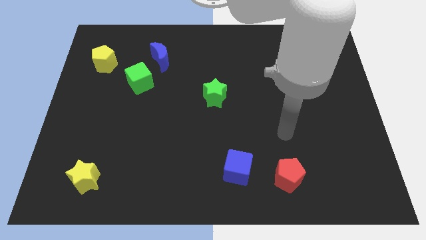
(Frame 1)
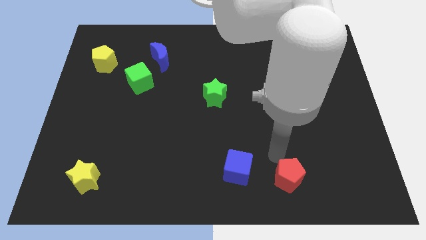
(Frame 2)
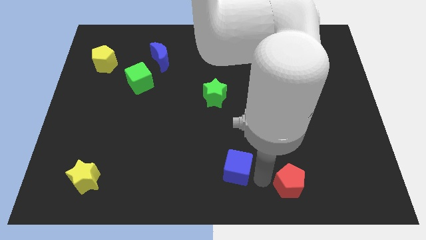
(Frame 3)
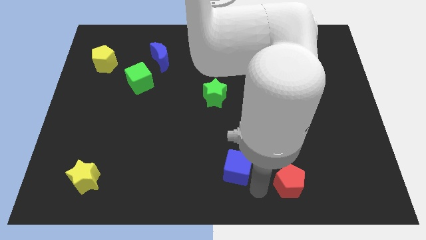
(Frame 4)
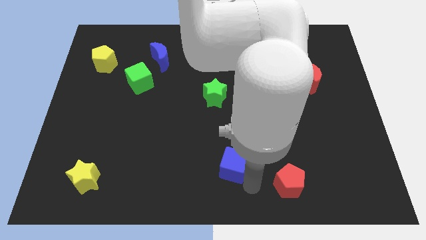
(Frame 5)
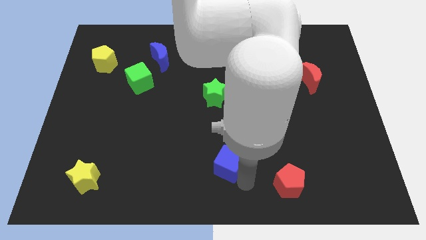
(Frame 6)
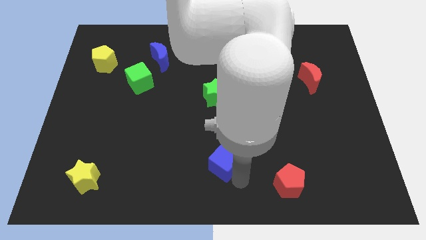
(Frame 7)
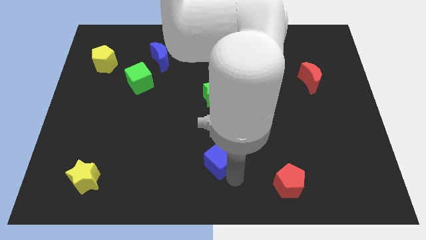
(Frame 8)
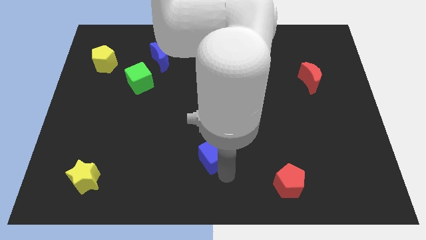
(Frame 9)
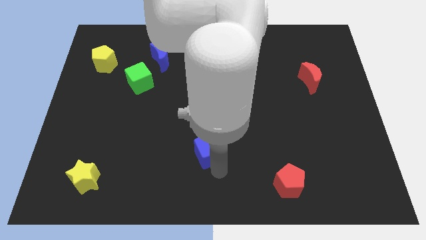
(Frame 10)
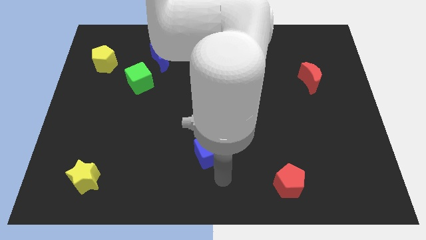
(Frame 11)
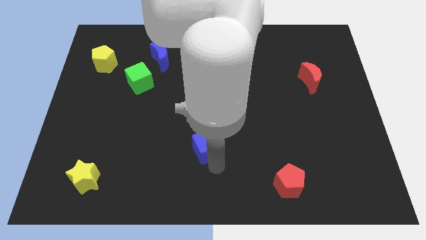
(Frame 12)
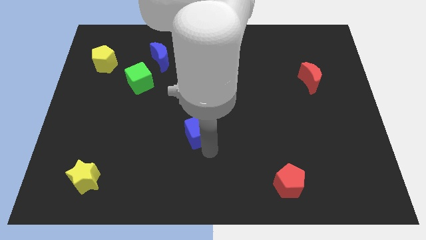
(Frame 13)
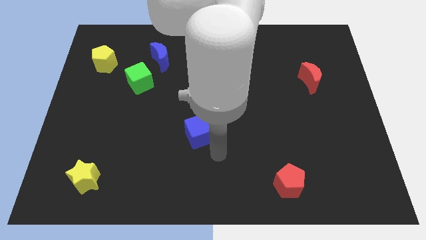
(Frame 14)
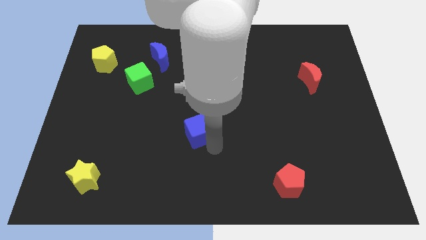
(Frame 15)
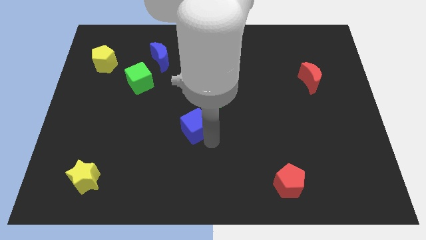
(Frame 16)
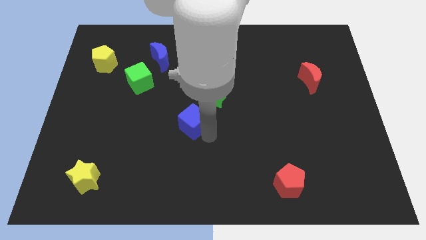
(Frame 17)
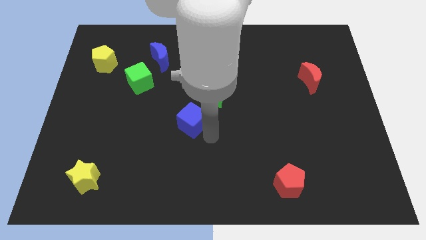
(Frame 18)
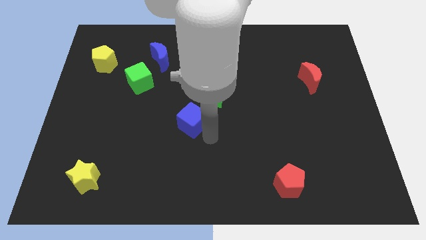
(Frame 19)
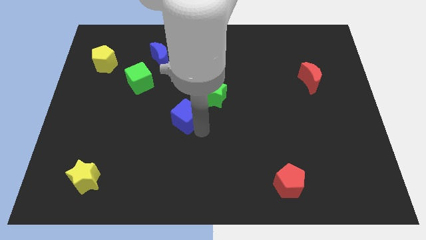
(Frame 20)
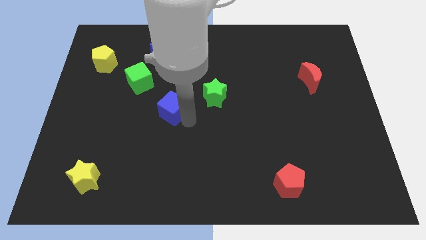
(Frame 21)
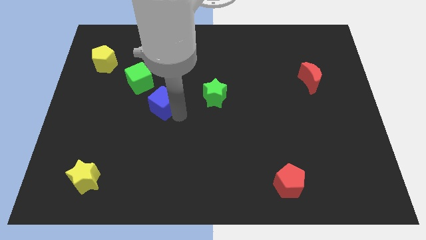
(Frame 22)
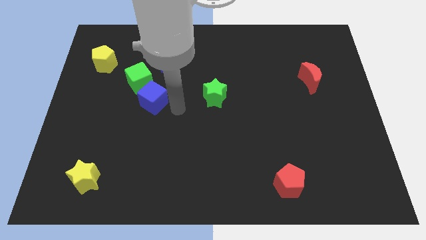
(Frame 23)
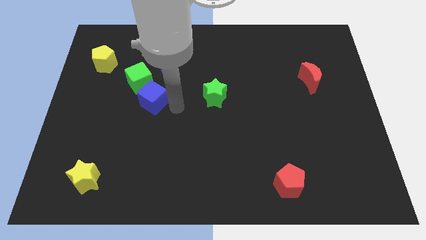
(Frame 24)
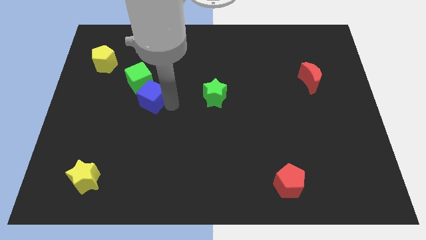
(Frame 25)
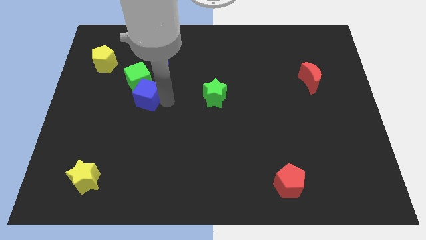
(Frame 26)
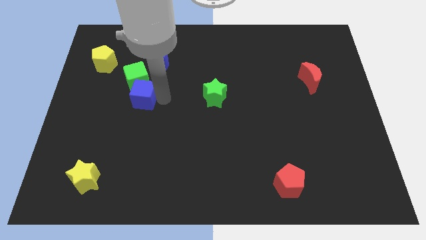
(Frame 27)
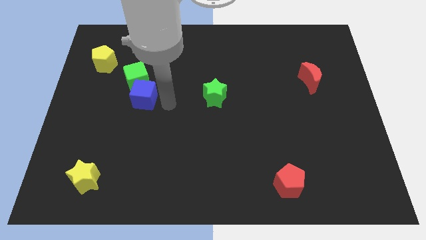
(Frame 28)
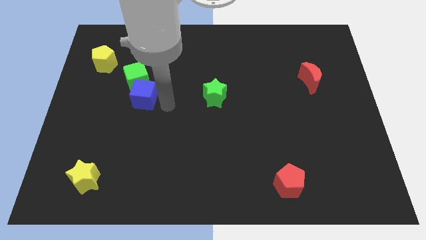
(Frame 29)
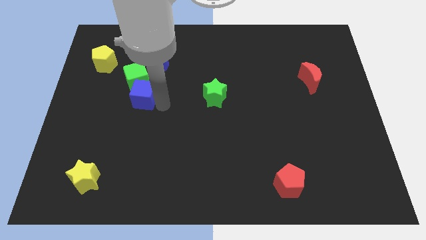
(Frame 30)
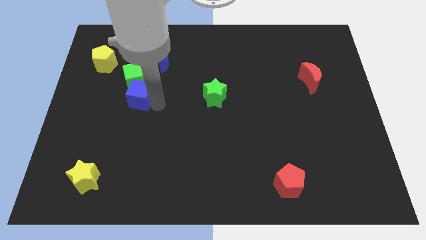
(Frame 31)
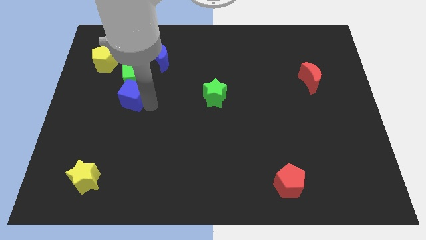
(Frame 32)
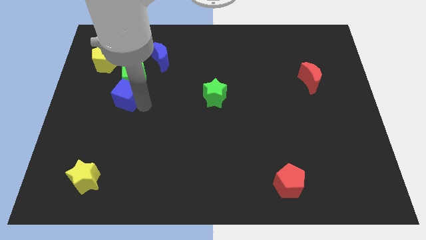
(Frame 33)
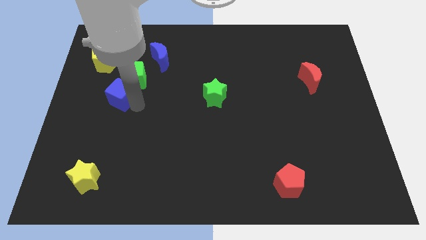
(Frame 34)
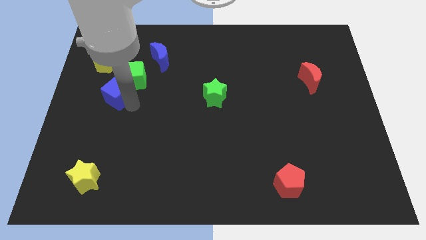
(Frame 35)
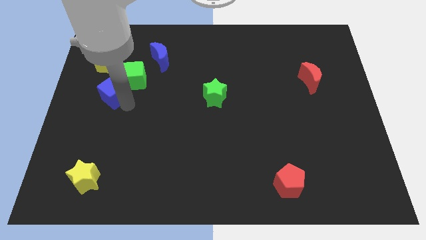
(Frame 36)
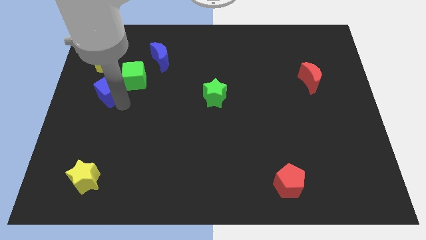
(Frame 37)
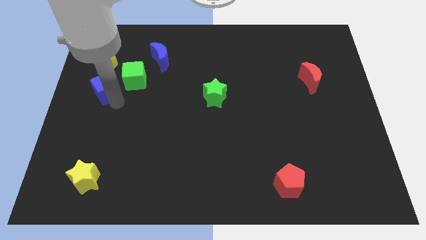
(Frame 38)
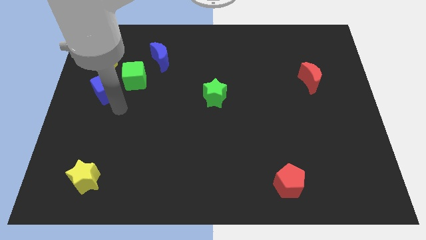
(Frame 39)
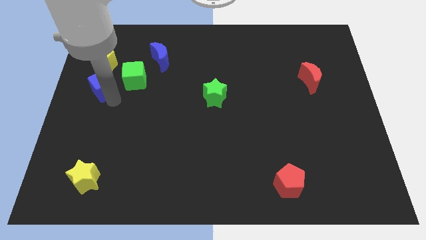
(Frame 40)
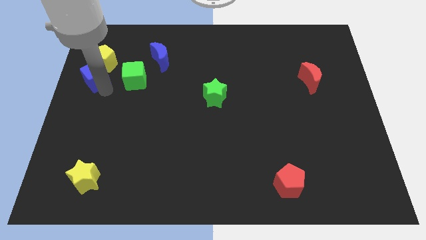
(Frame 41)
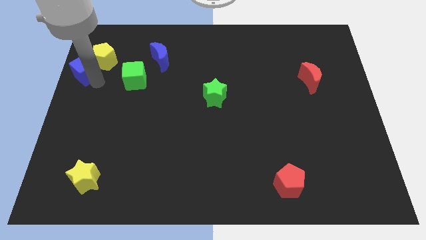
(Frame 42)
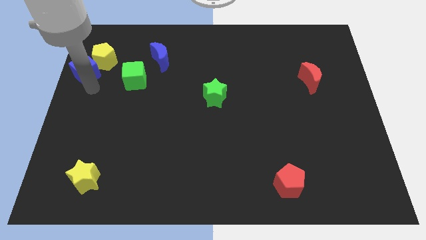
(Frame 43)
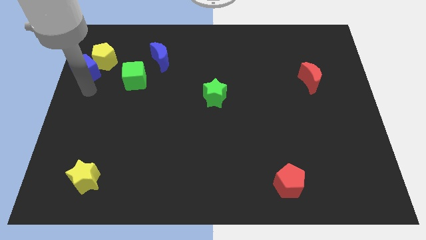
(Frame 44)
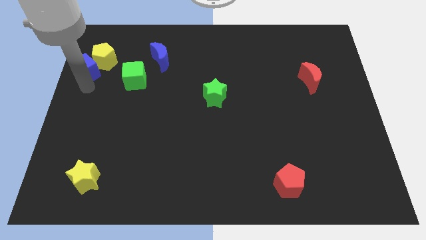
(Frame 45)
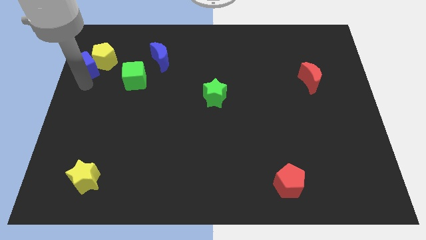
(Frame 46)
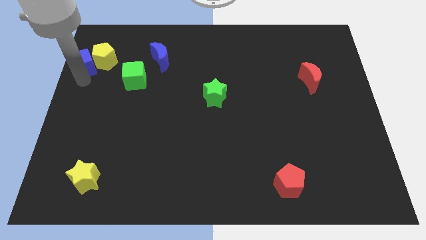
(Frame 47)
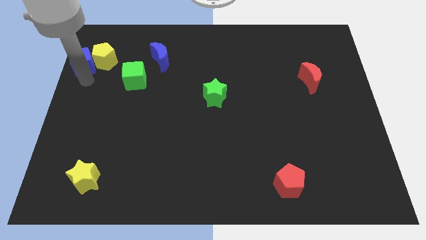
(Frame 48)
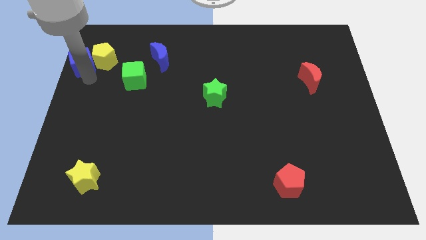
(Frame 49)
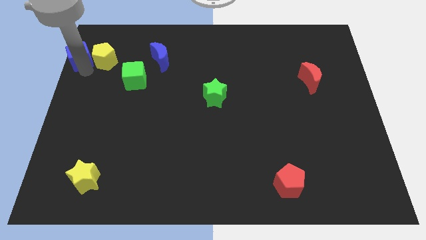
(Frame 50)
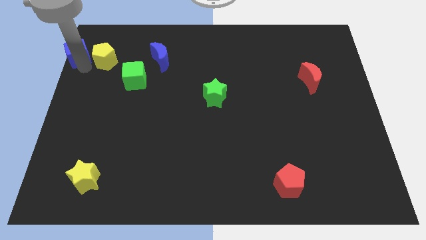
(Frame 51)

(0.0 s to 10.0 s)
move the blue cube to the top left of the board

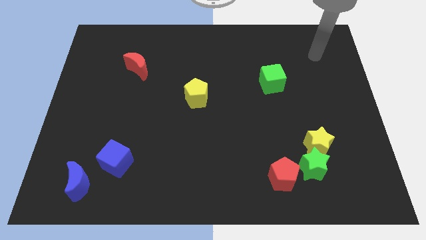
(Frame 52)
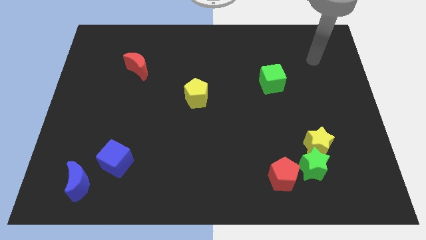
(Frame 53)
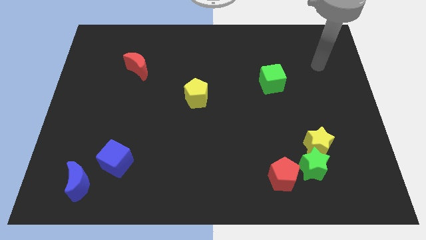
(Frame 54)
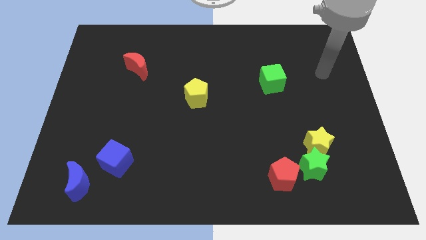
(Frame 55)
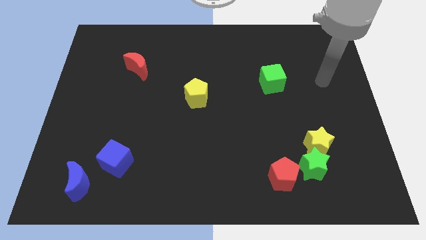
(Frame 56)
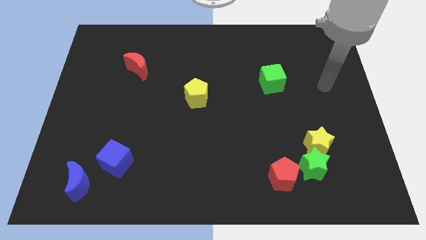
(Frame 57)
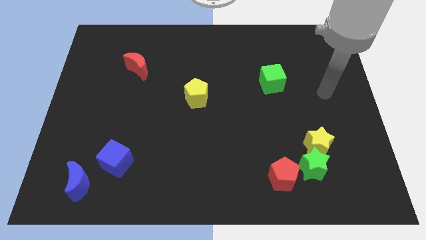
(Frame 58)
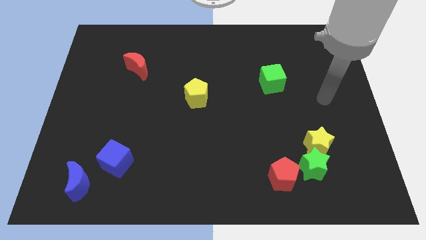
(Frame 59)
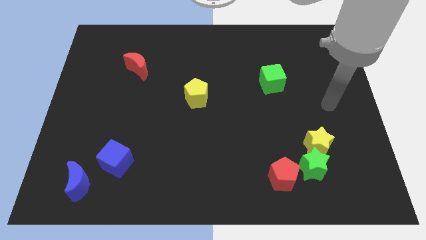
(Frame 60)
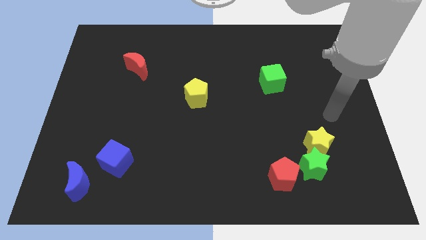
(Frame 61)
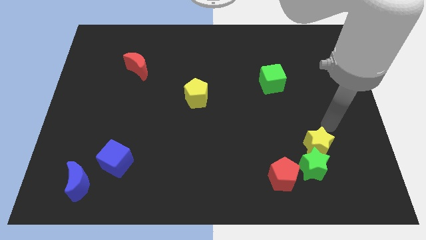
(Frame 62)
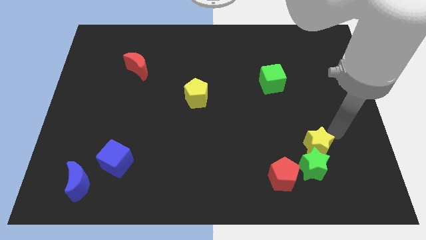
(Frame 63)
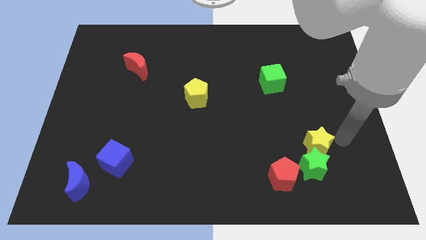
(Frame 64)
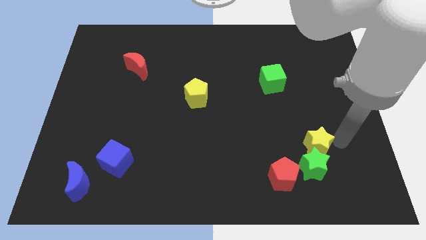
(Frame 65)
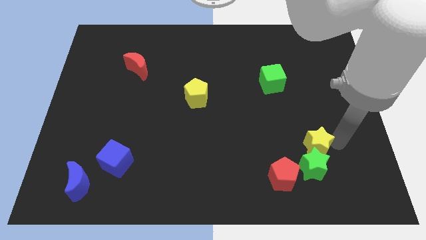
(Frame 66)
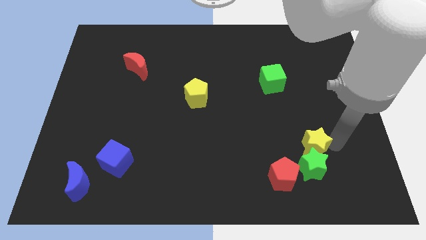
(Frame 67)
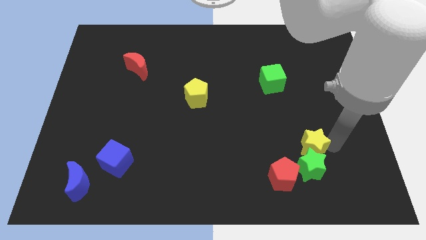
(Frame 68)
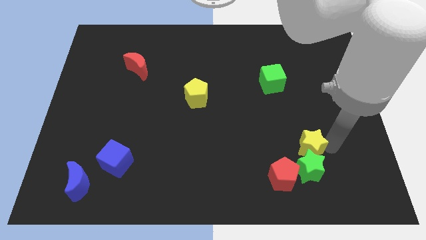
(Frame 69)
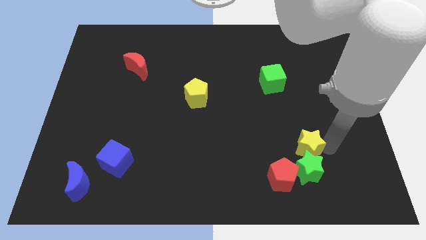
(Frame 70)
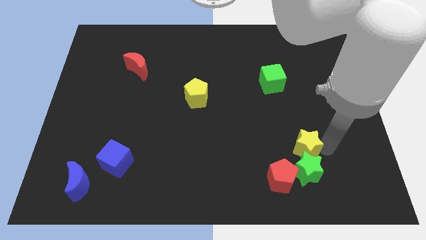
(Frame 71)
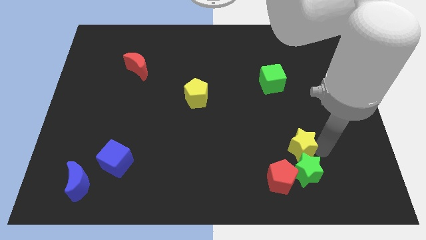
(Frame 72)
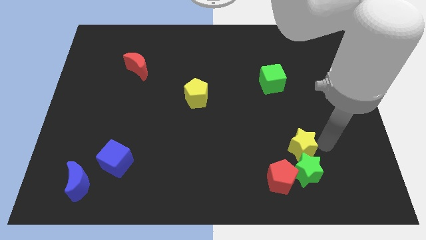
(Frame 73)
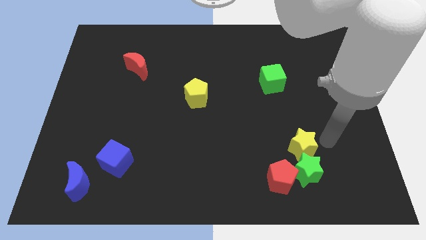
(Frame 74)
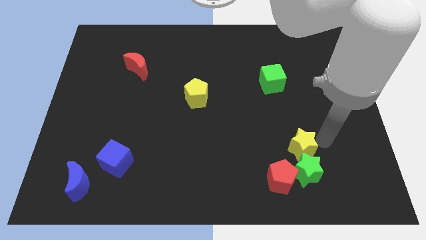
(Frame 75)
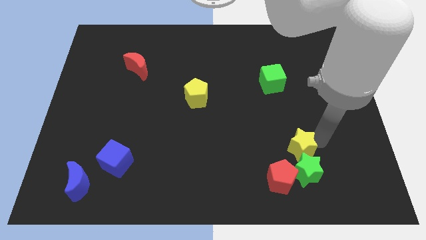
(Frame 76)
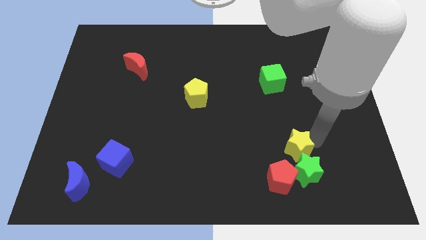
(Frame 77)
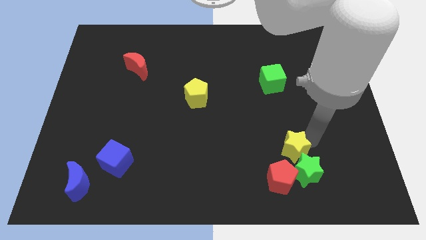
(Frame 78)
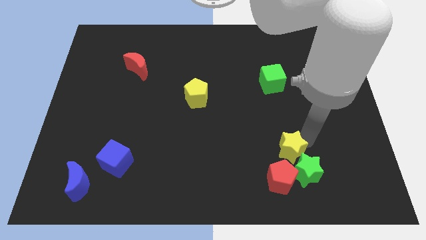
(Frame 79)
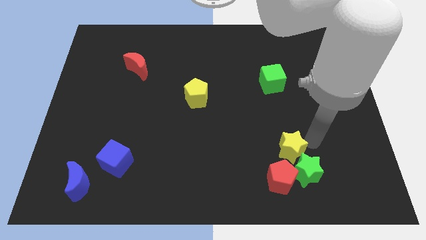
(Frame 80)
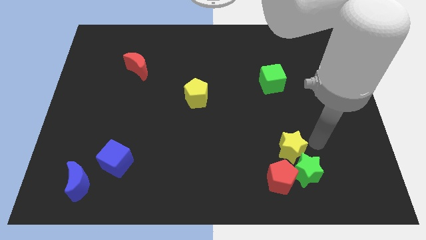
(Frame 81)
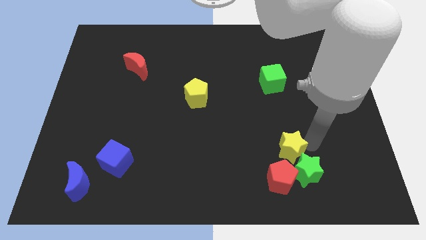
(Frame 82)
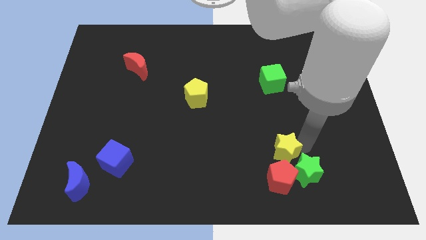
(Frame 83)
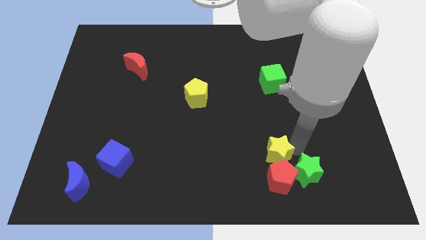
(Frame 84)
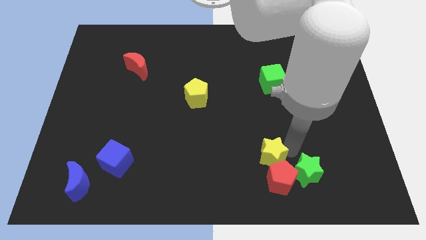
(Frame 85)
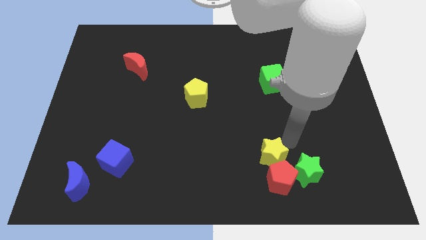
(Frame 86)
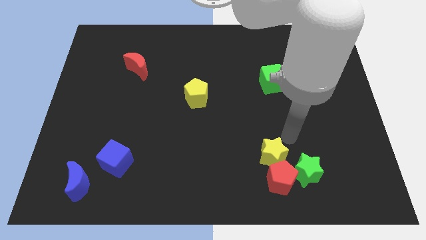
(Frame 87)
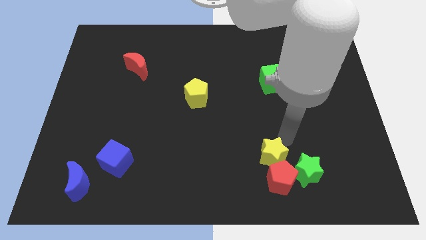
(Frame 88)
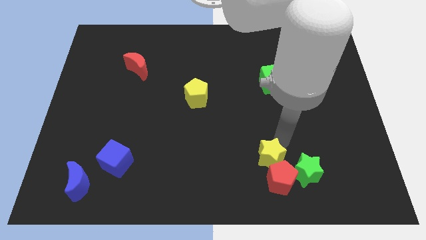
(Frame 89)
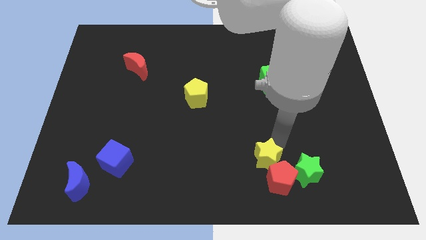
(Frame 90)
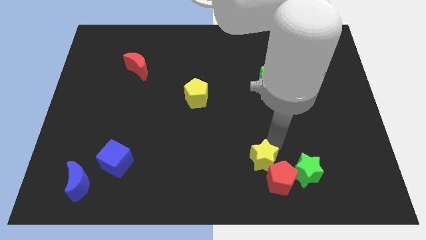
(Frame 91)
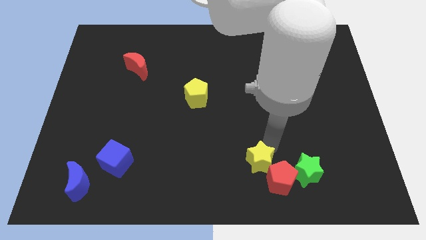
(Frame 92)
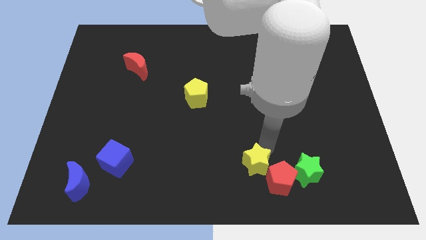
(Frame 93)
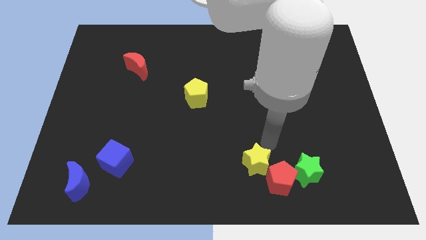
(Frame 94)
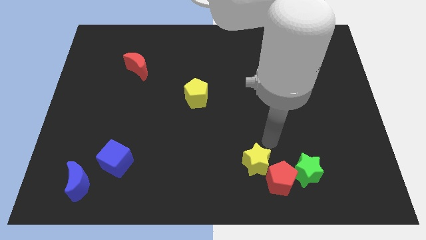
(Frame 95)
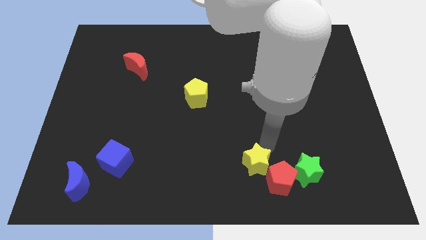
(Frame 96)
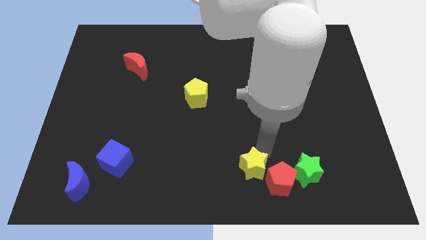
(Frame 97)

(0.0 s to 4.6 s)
push the yellow star to the bottom side
